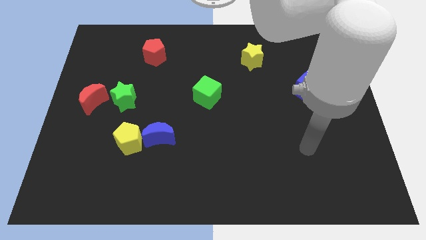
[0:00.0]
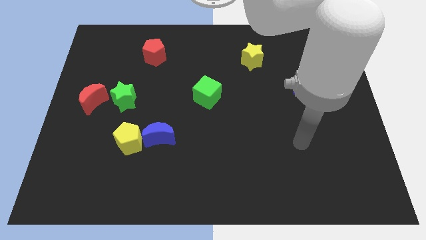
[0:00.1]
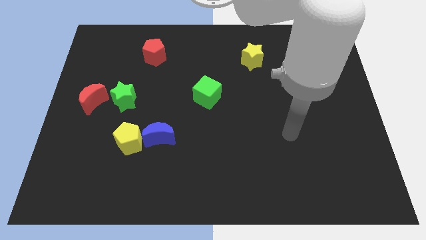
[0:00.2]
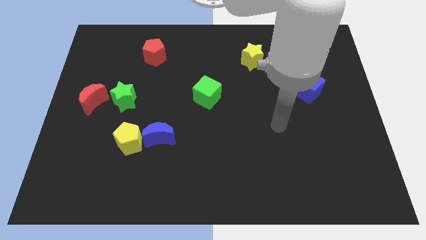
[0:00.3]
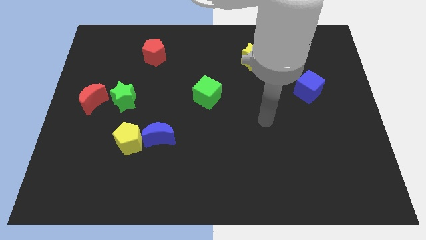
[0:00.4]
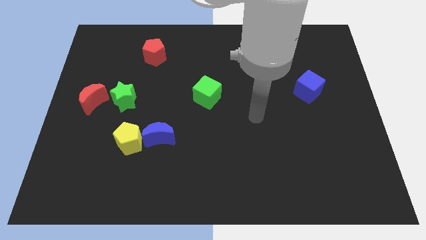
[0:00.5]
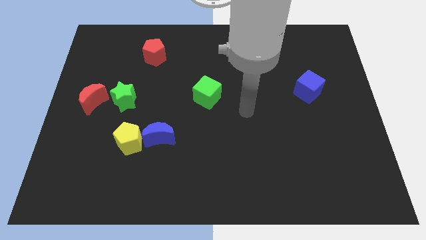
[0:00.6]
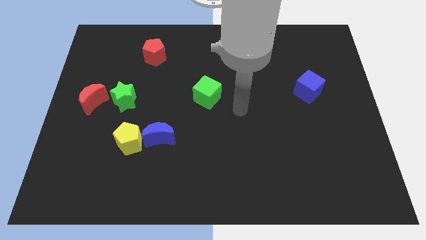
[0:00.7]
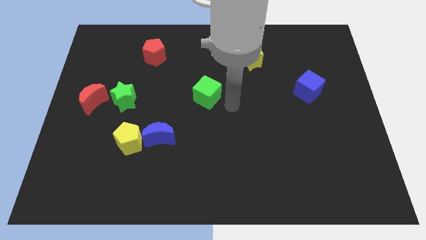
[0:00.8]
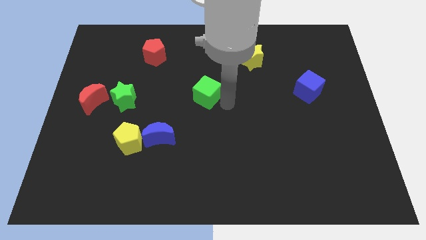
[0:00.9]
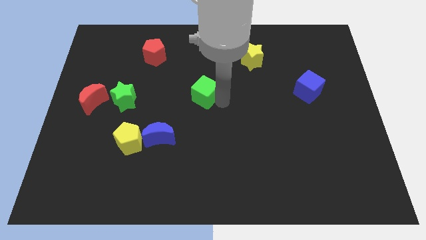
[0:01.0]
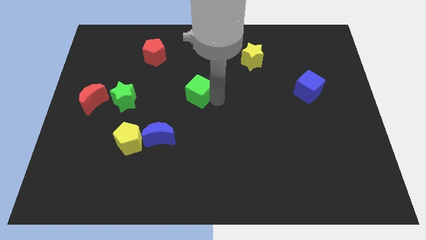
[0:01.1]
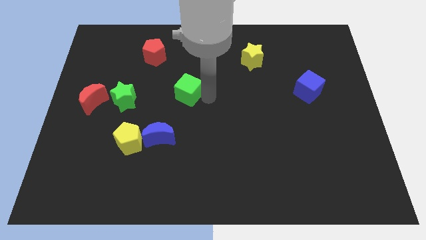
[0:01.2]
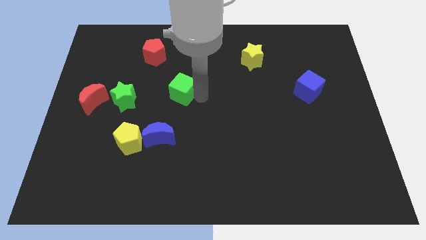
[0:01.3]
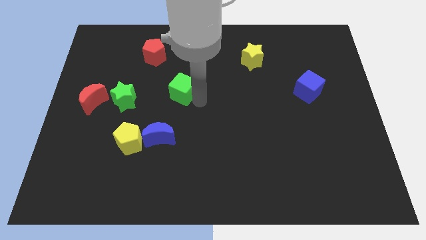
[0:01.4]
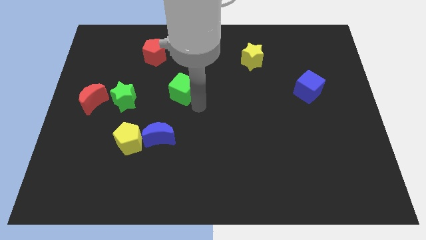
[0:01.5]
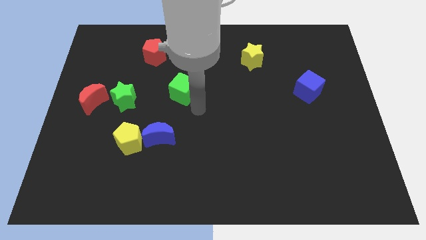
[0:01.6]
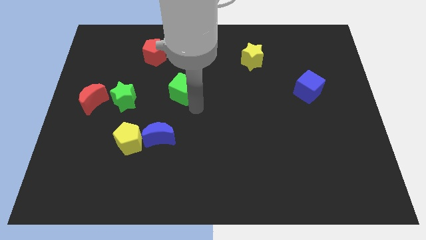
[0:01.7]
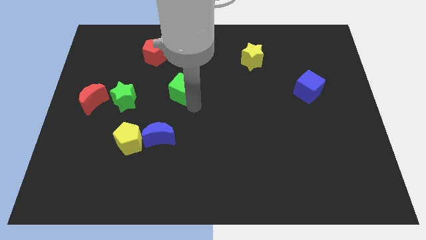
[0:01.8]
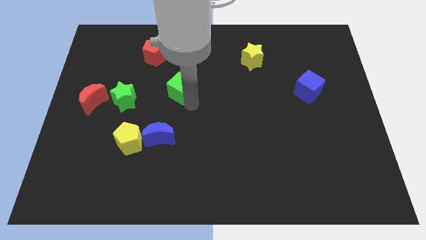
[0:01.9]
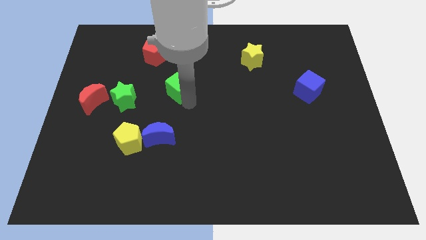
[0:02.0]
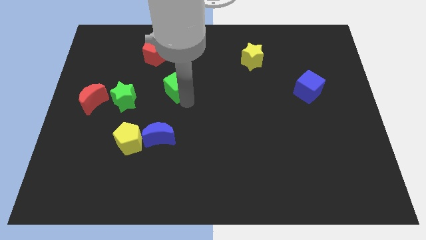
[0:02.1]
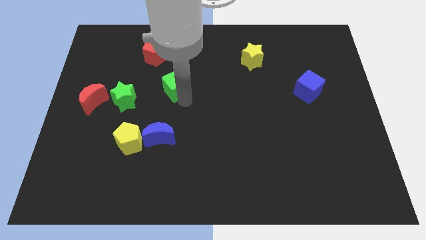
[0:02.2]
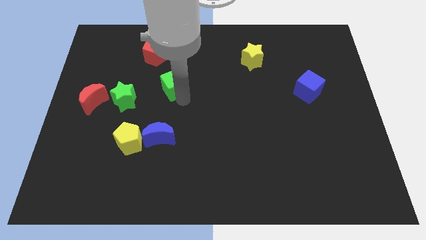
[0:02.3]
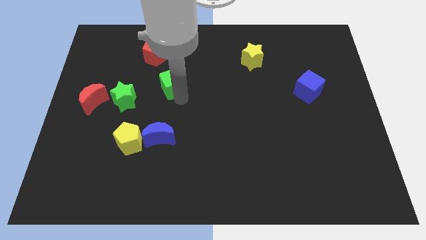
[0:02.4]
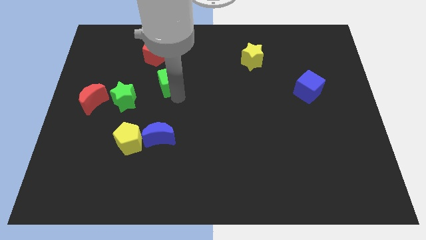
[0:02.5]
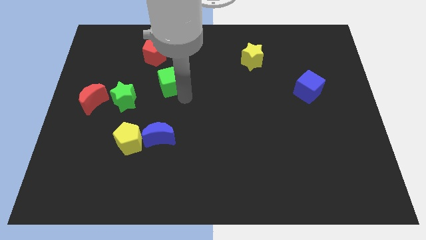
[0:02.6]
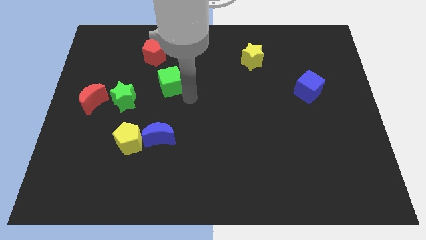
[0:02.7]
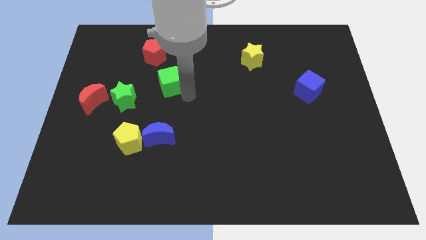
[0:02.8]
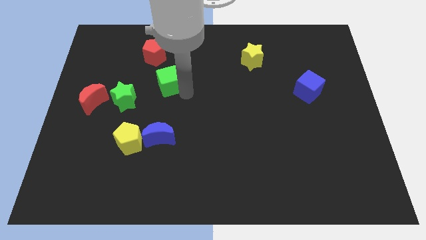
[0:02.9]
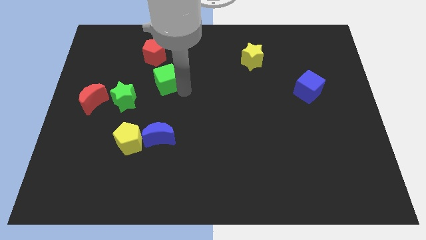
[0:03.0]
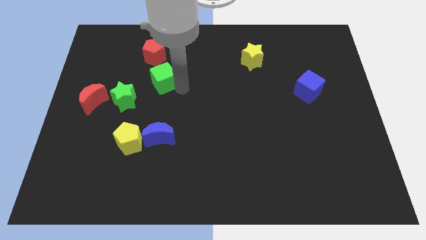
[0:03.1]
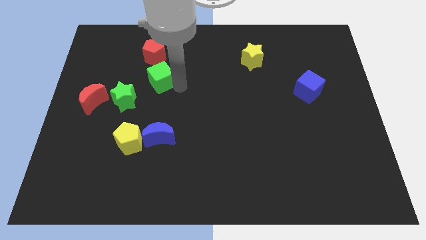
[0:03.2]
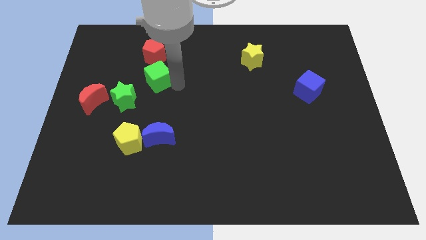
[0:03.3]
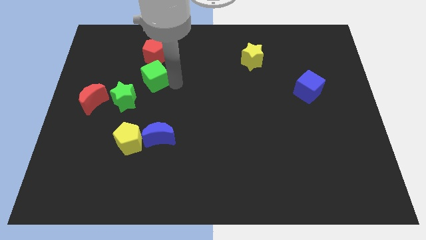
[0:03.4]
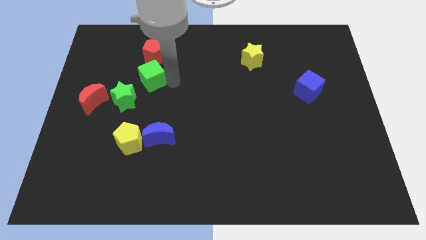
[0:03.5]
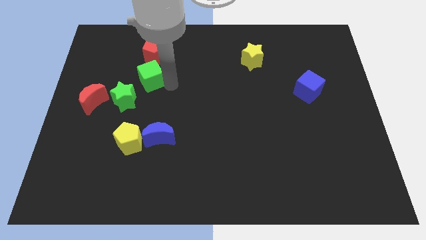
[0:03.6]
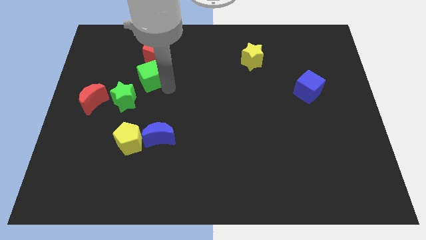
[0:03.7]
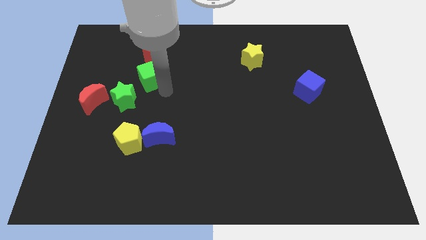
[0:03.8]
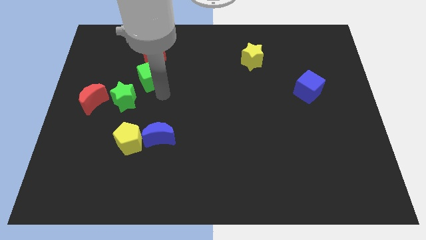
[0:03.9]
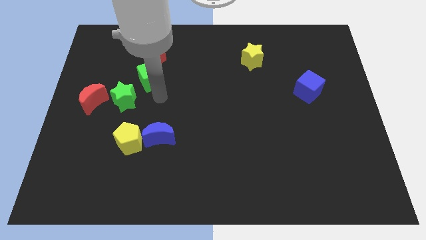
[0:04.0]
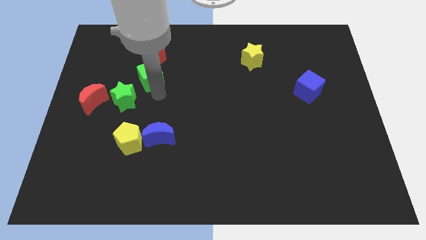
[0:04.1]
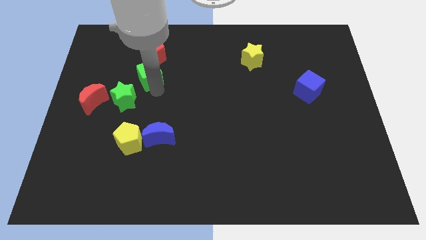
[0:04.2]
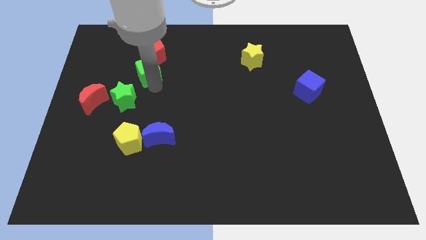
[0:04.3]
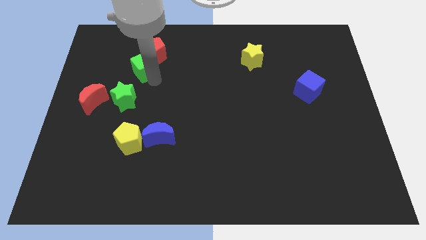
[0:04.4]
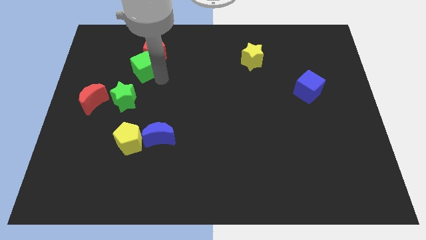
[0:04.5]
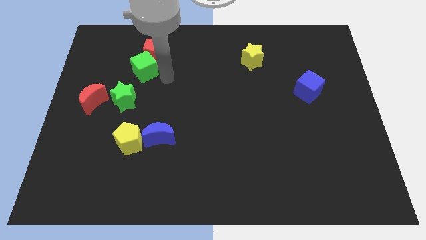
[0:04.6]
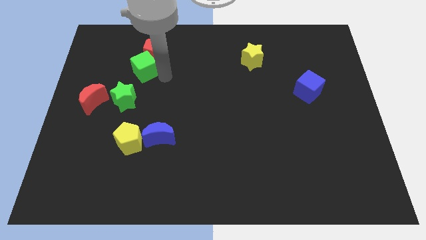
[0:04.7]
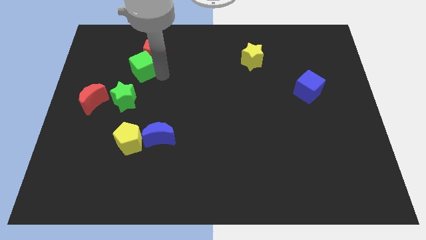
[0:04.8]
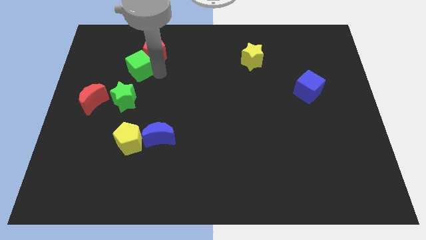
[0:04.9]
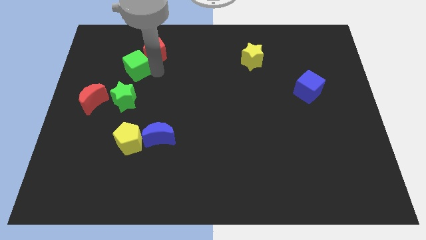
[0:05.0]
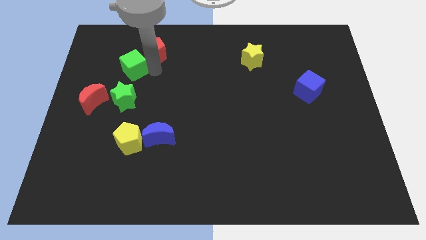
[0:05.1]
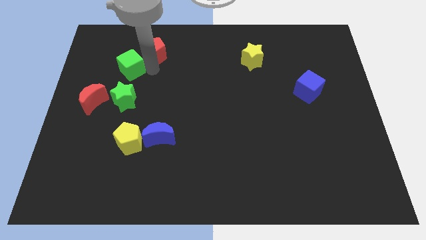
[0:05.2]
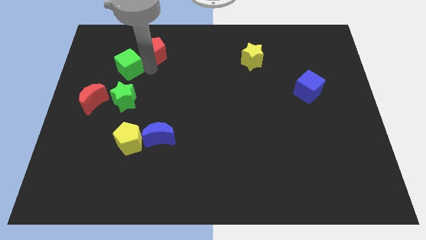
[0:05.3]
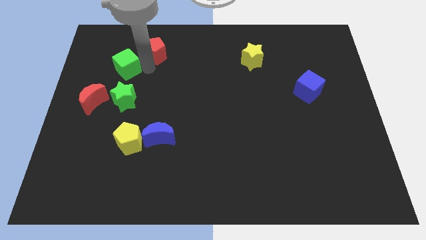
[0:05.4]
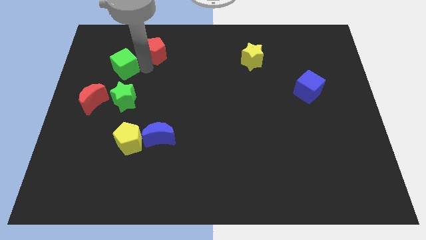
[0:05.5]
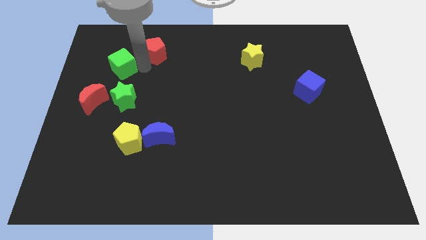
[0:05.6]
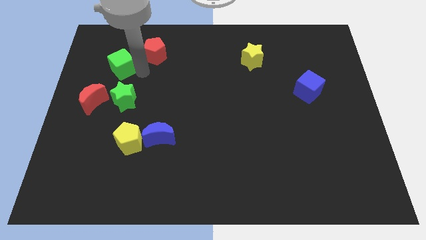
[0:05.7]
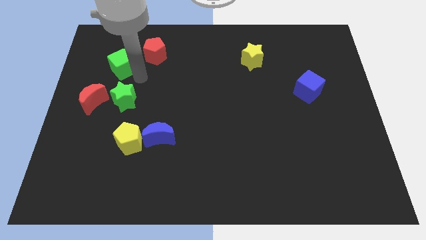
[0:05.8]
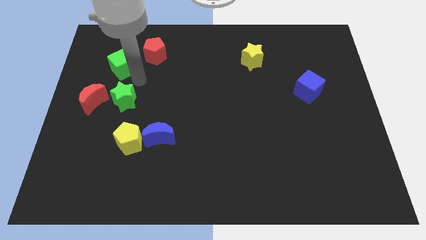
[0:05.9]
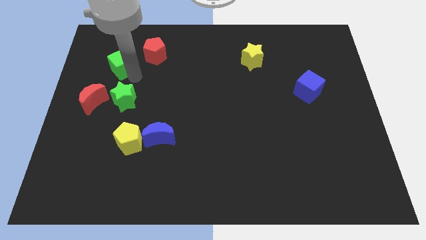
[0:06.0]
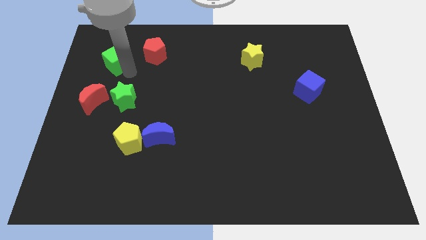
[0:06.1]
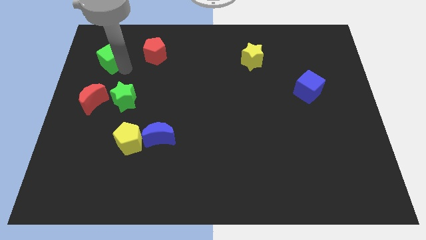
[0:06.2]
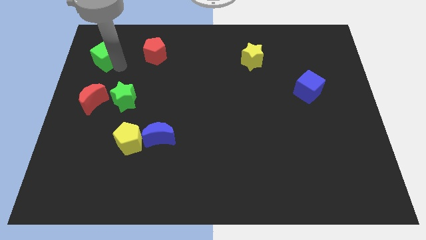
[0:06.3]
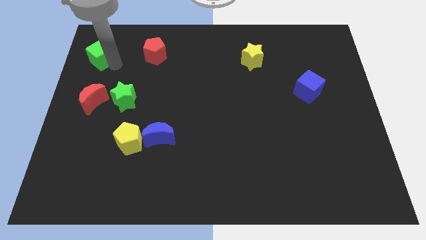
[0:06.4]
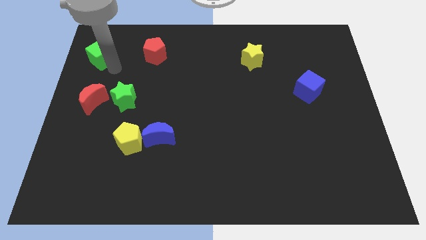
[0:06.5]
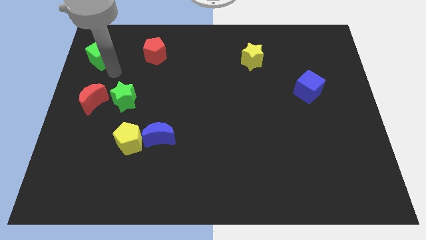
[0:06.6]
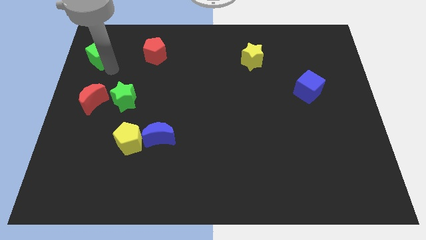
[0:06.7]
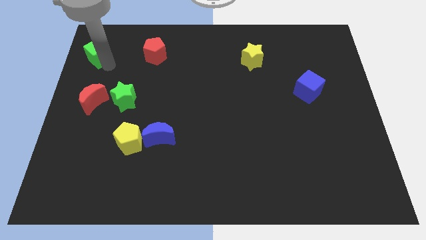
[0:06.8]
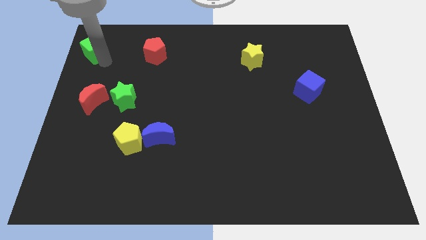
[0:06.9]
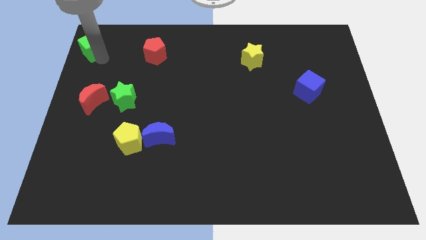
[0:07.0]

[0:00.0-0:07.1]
push the green cube to the top left of the board
